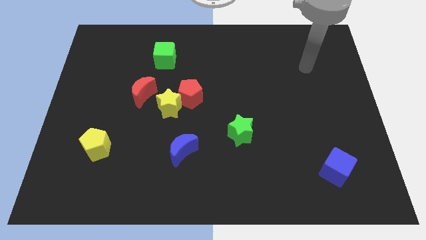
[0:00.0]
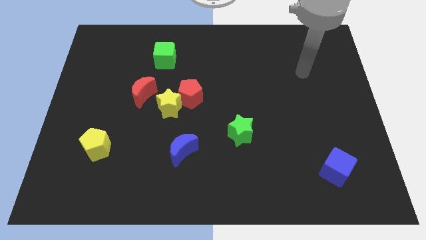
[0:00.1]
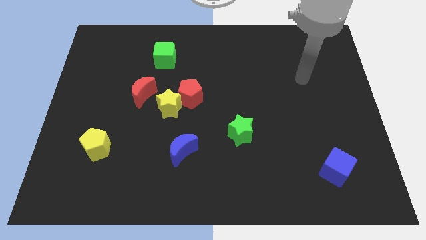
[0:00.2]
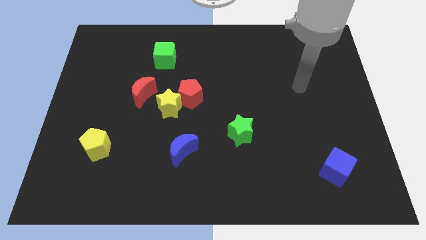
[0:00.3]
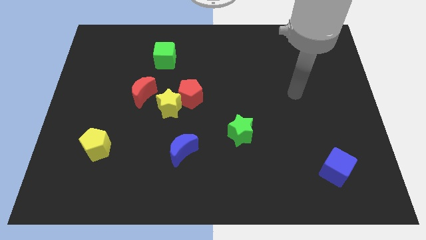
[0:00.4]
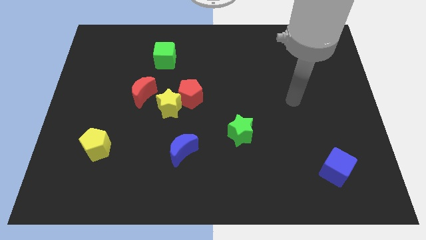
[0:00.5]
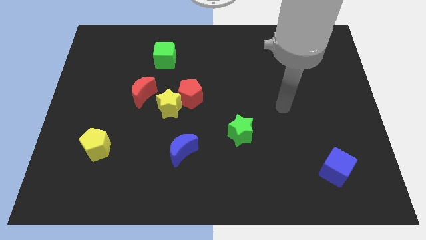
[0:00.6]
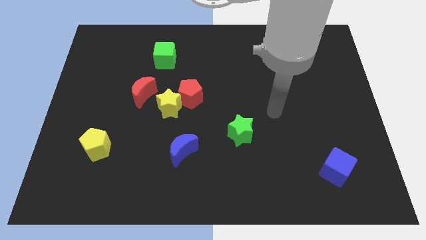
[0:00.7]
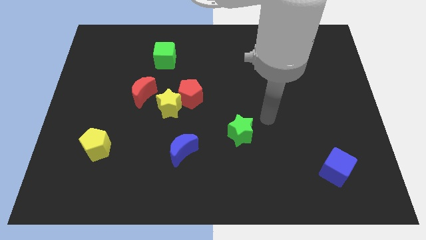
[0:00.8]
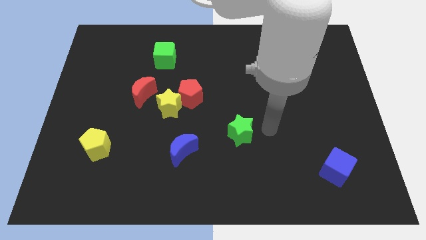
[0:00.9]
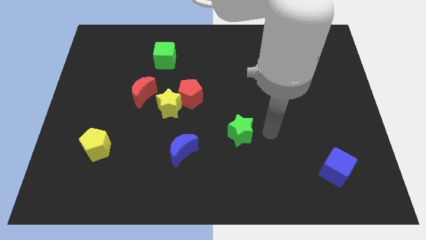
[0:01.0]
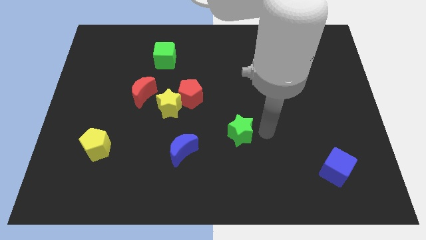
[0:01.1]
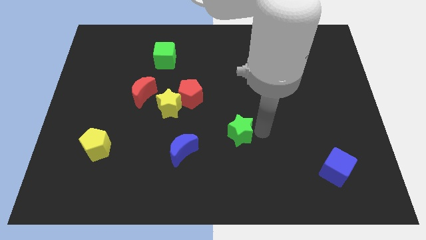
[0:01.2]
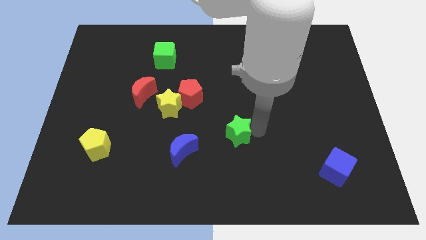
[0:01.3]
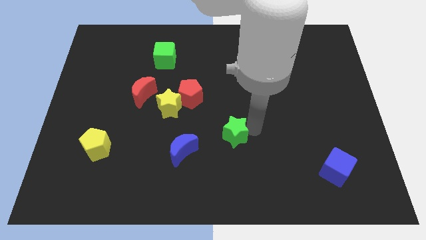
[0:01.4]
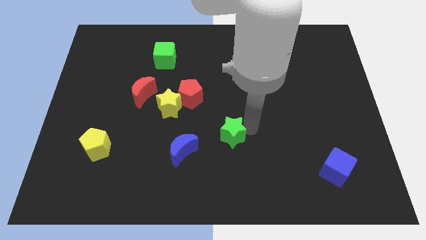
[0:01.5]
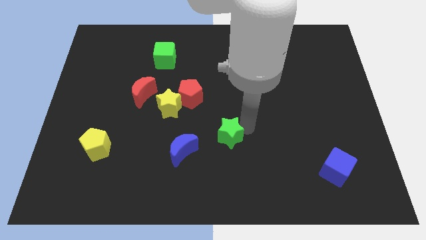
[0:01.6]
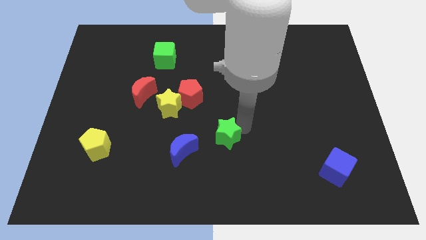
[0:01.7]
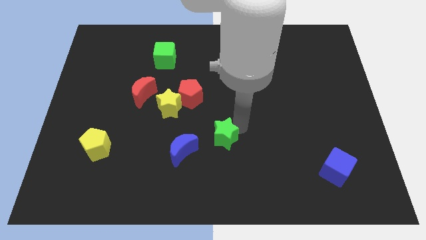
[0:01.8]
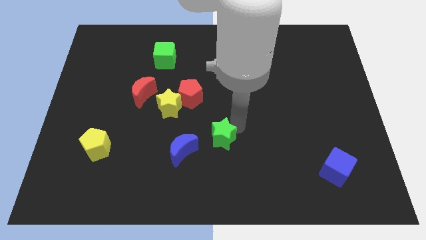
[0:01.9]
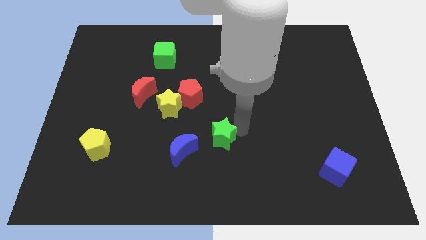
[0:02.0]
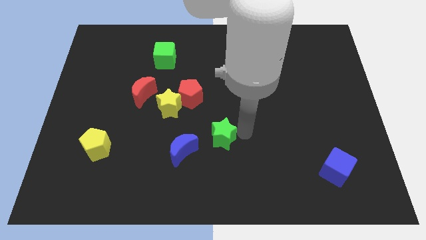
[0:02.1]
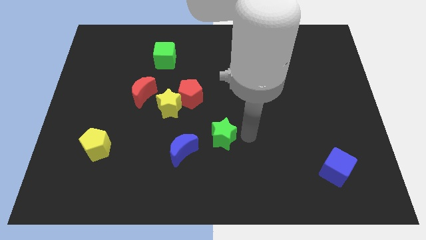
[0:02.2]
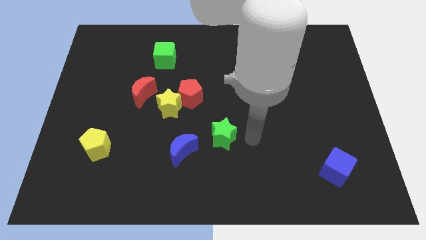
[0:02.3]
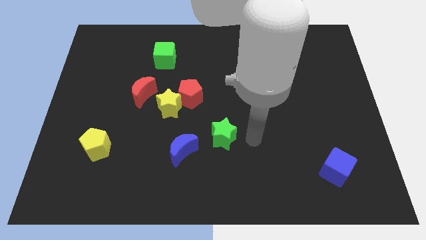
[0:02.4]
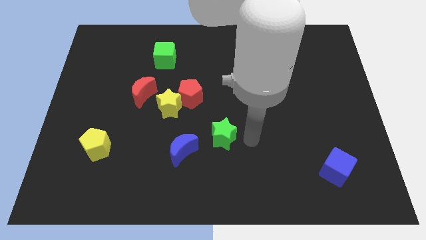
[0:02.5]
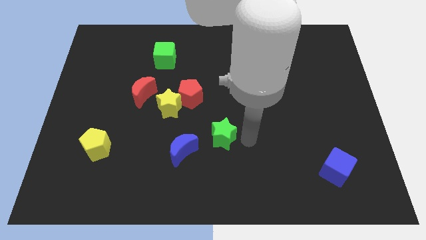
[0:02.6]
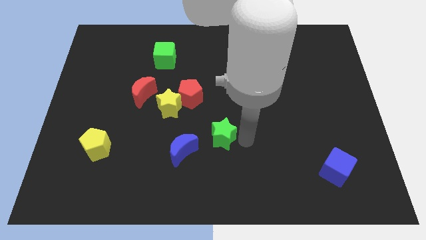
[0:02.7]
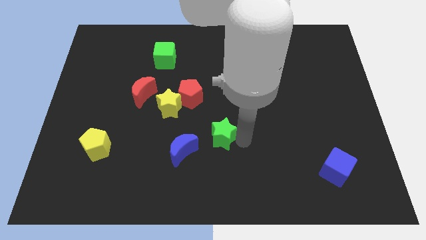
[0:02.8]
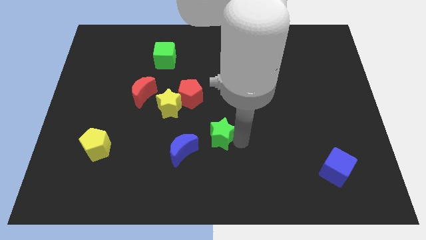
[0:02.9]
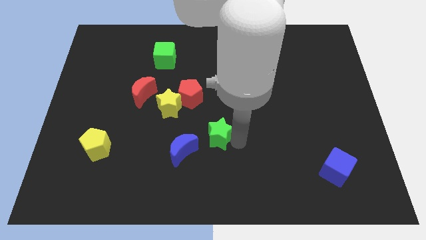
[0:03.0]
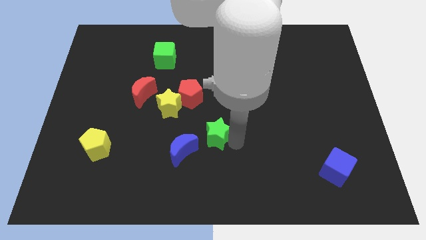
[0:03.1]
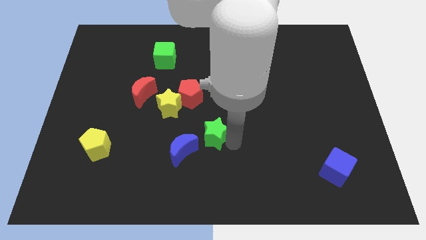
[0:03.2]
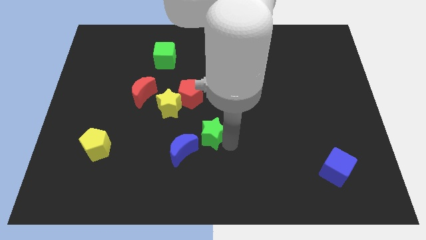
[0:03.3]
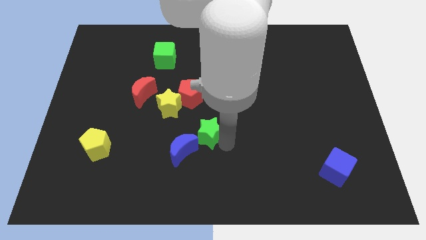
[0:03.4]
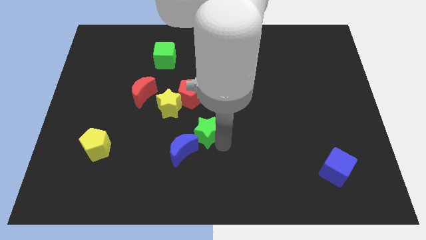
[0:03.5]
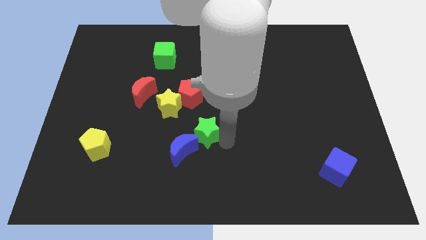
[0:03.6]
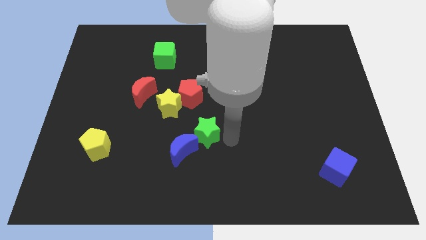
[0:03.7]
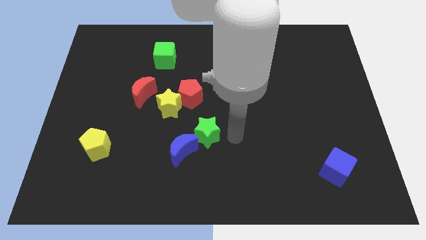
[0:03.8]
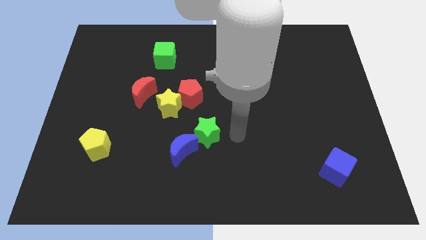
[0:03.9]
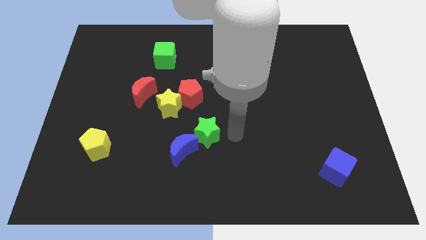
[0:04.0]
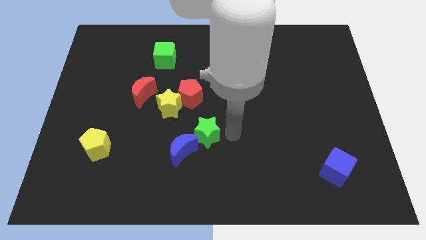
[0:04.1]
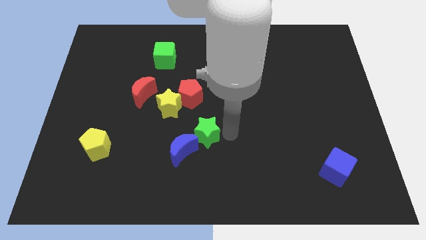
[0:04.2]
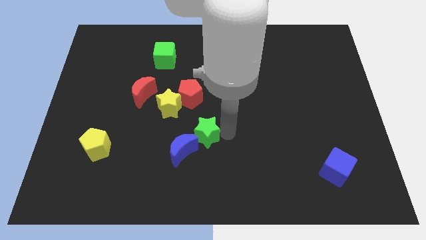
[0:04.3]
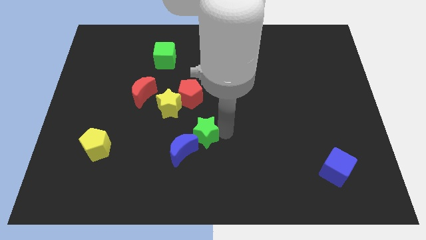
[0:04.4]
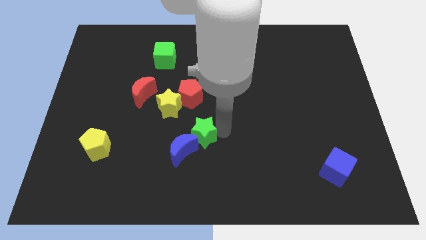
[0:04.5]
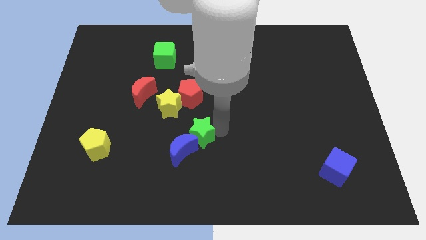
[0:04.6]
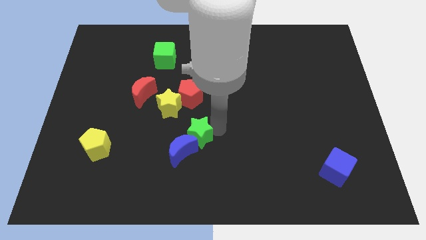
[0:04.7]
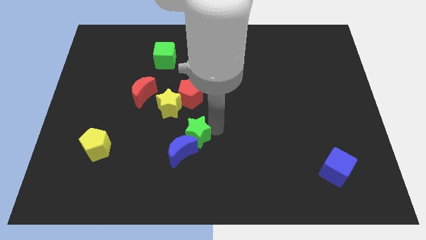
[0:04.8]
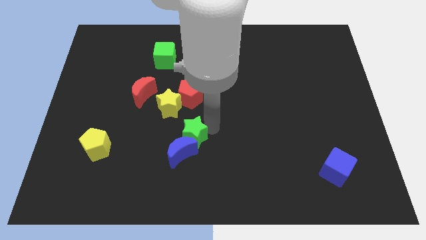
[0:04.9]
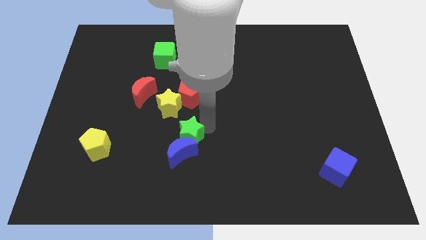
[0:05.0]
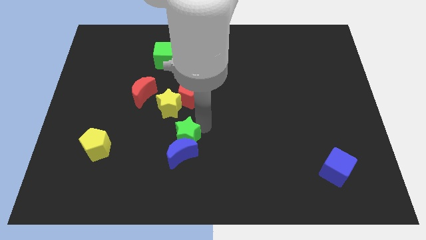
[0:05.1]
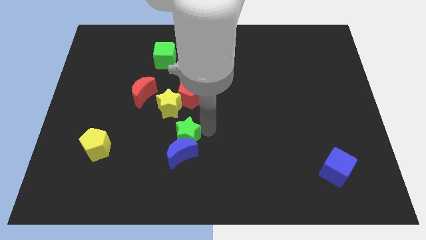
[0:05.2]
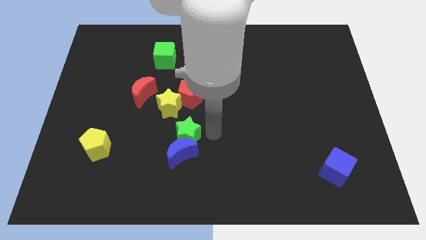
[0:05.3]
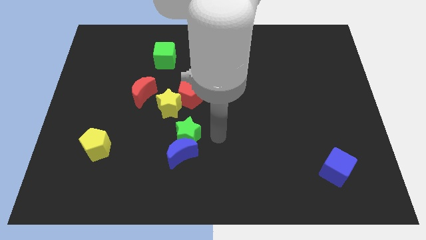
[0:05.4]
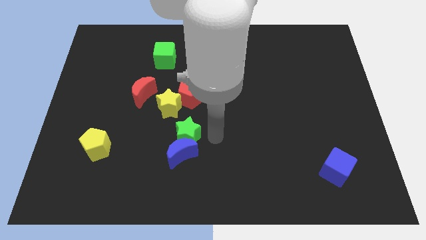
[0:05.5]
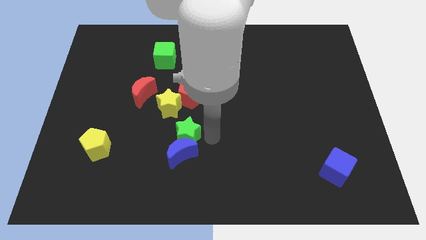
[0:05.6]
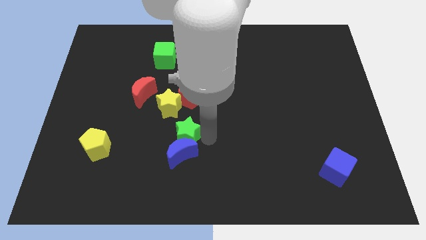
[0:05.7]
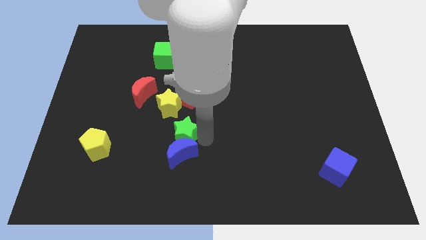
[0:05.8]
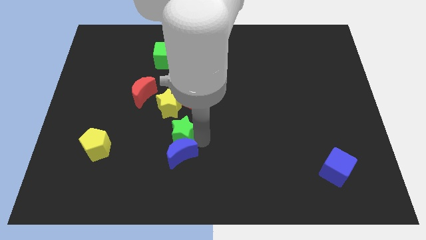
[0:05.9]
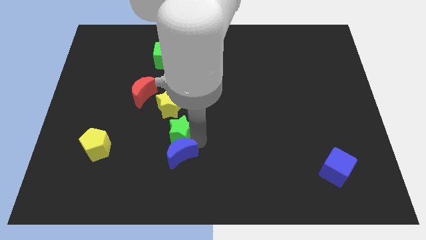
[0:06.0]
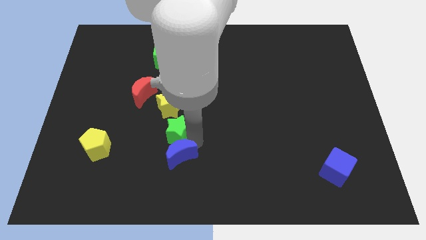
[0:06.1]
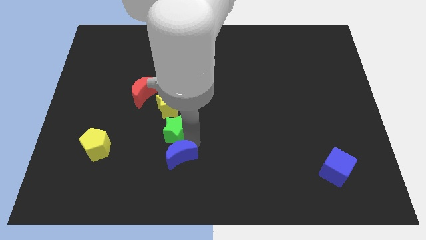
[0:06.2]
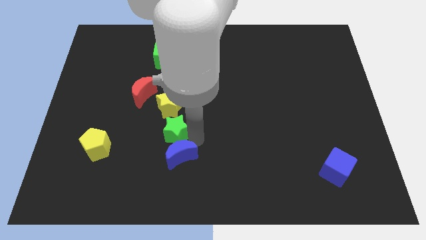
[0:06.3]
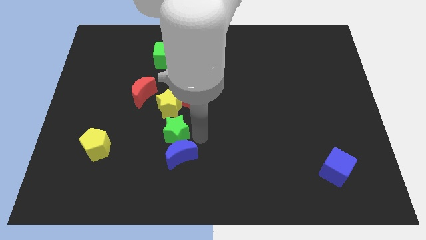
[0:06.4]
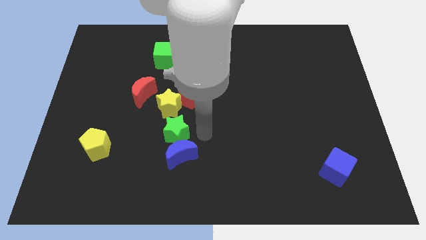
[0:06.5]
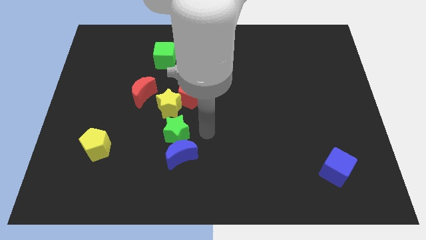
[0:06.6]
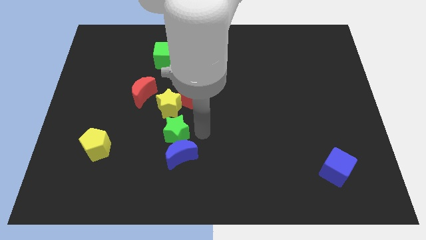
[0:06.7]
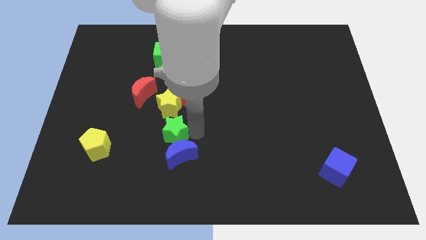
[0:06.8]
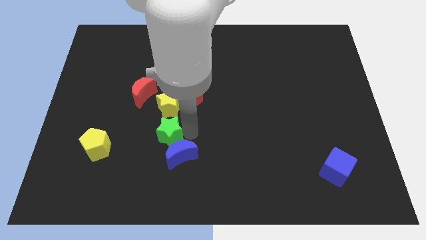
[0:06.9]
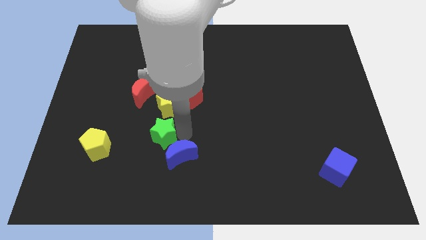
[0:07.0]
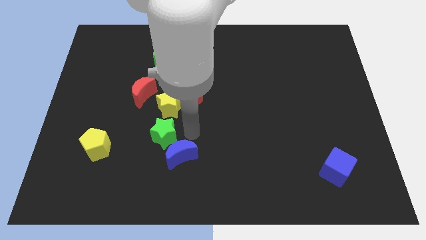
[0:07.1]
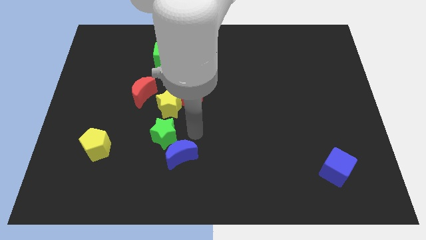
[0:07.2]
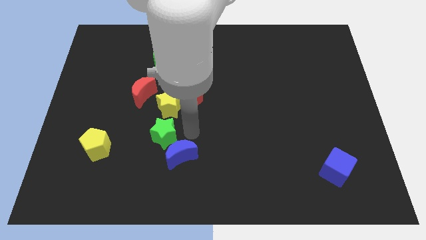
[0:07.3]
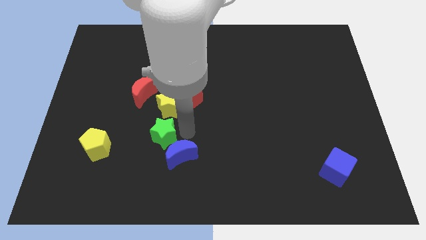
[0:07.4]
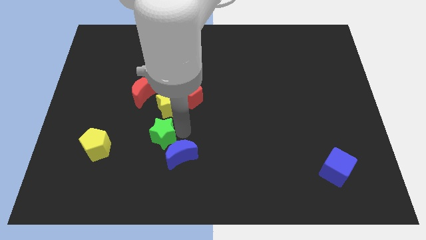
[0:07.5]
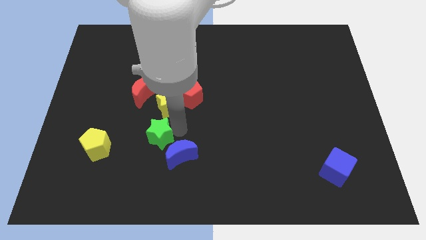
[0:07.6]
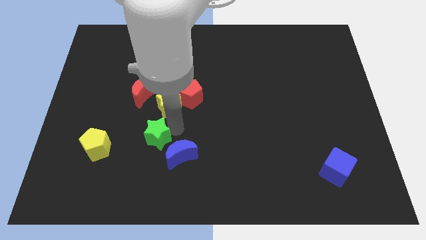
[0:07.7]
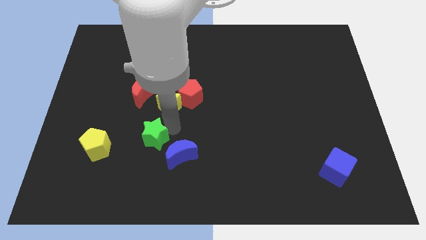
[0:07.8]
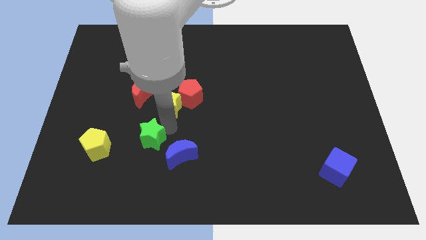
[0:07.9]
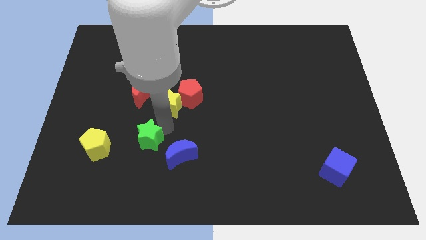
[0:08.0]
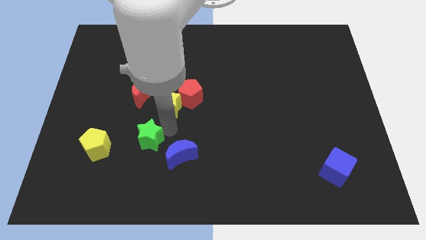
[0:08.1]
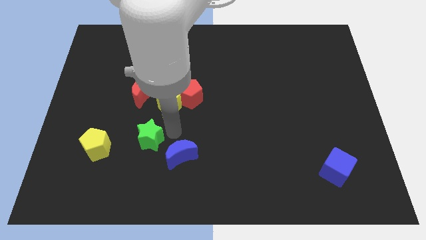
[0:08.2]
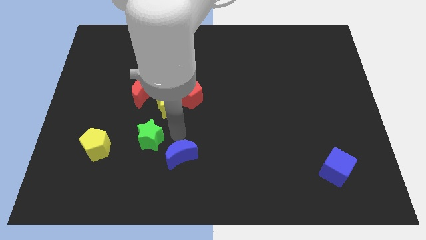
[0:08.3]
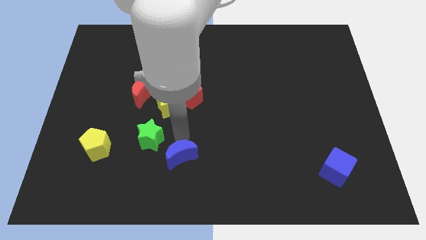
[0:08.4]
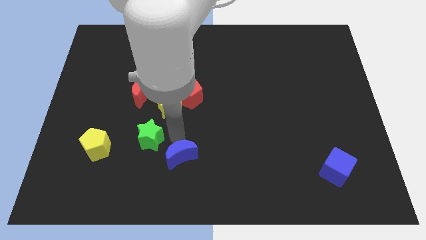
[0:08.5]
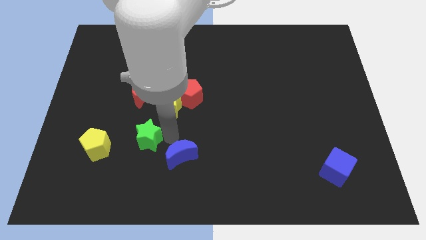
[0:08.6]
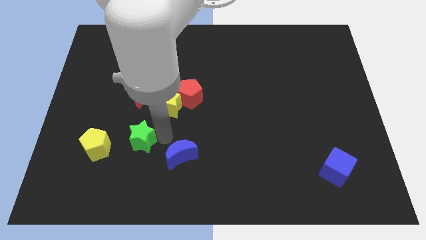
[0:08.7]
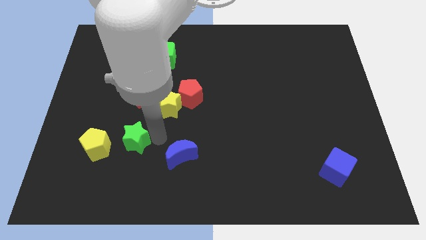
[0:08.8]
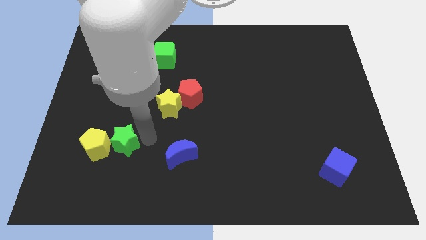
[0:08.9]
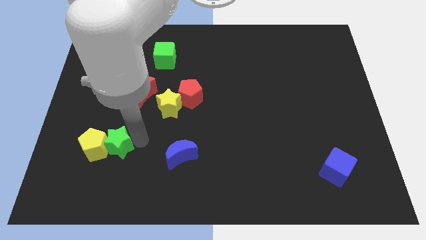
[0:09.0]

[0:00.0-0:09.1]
put the green star towards the yellow pentagon
